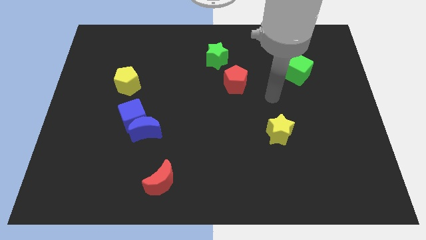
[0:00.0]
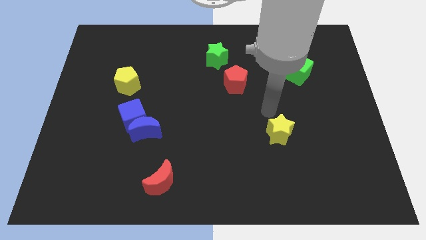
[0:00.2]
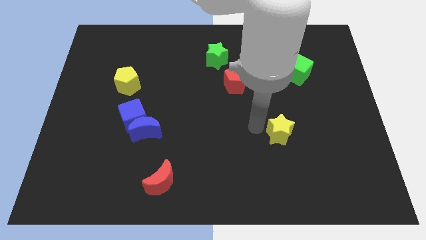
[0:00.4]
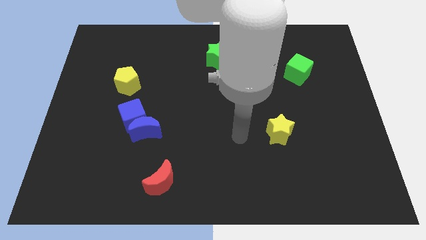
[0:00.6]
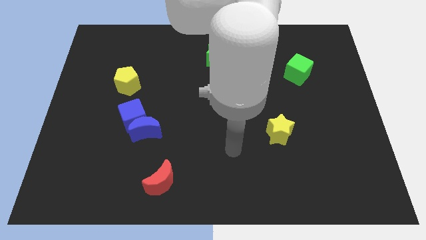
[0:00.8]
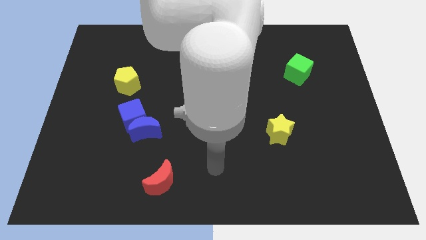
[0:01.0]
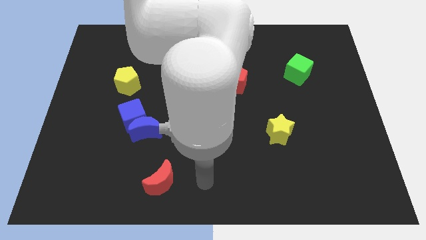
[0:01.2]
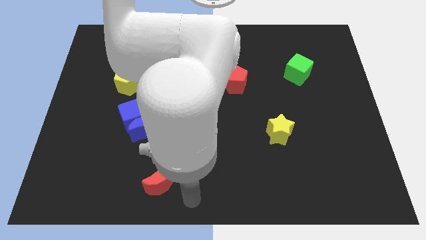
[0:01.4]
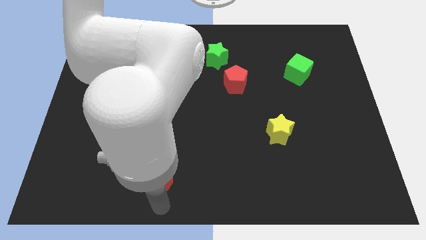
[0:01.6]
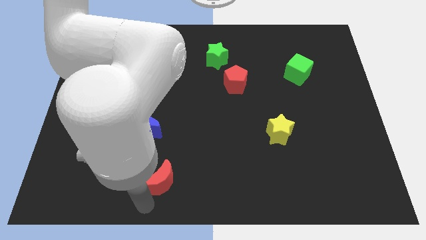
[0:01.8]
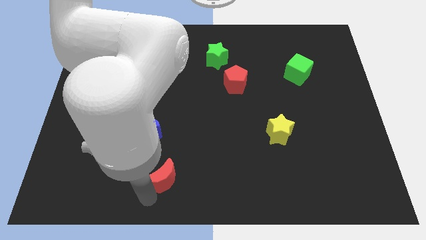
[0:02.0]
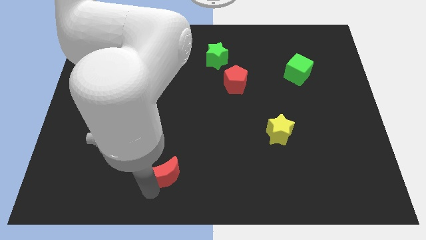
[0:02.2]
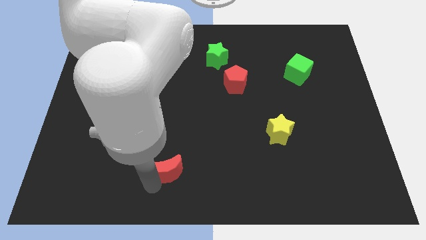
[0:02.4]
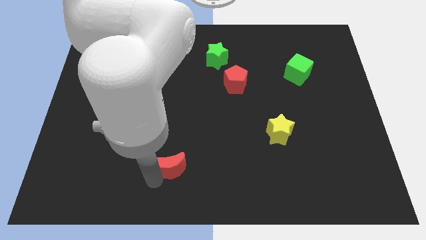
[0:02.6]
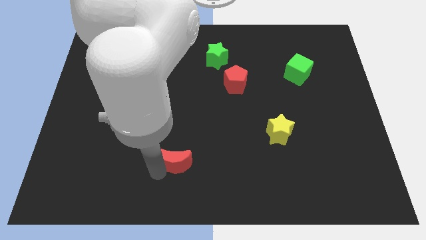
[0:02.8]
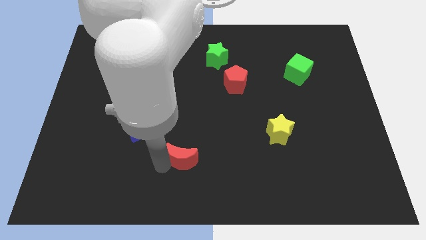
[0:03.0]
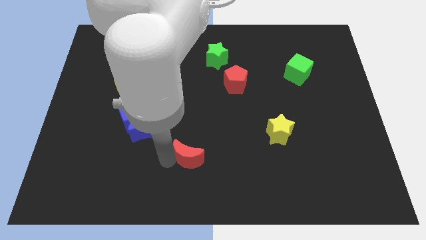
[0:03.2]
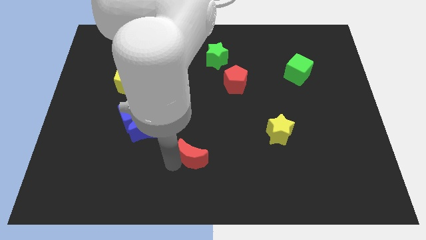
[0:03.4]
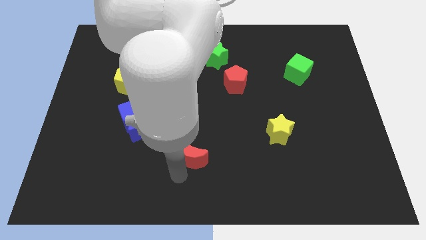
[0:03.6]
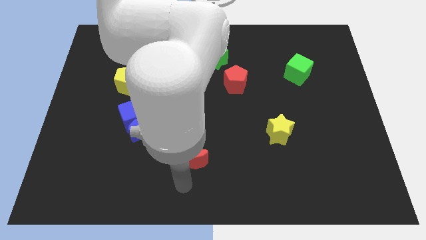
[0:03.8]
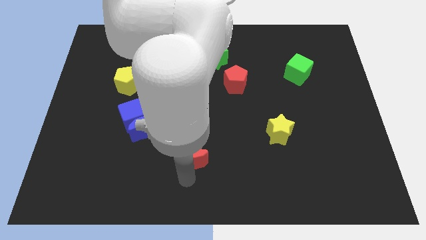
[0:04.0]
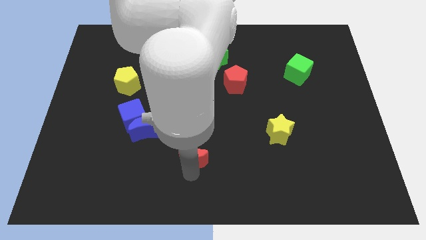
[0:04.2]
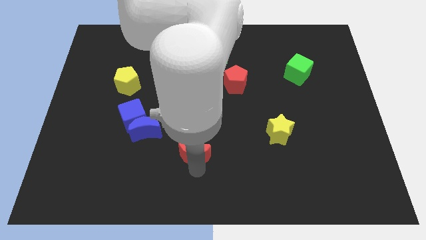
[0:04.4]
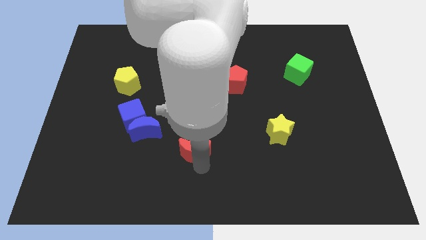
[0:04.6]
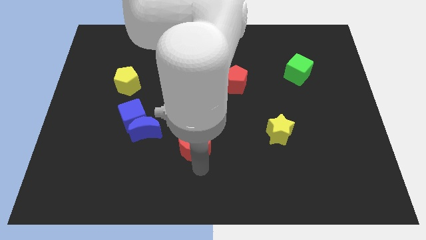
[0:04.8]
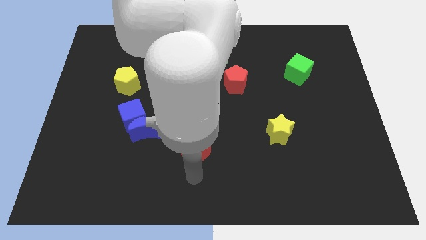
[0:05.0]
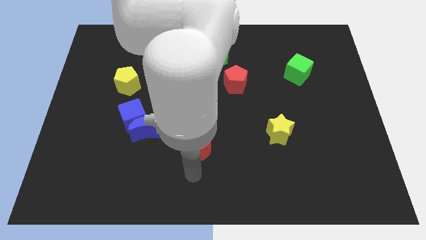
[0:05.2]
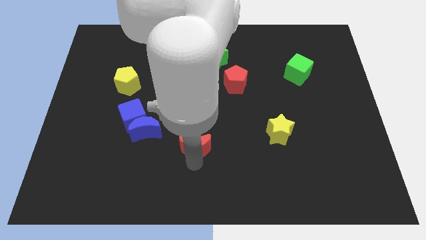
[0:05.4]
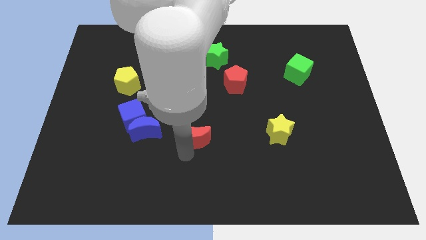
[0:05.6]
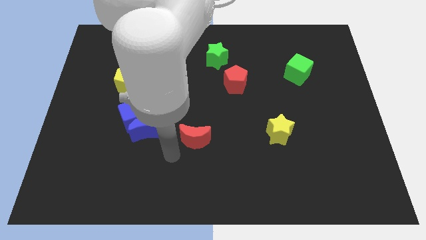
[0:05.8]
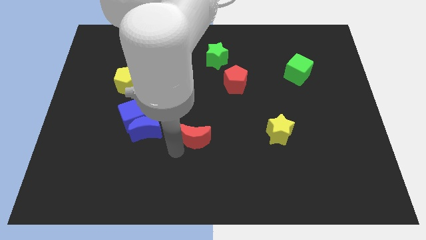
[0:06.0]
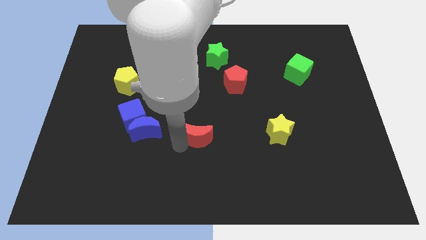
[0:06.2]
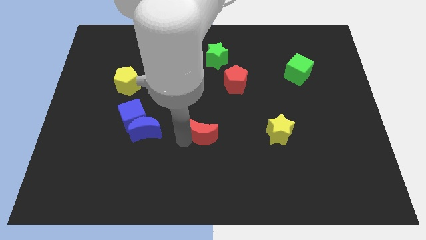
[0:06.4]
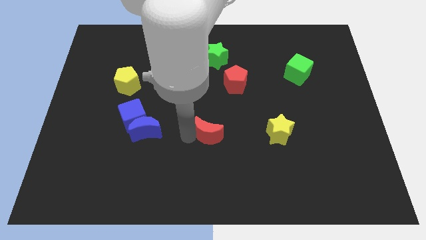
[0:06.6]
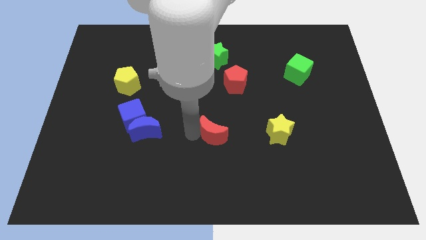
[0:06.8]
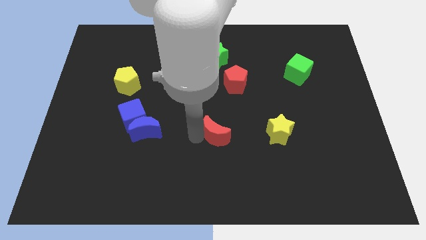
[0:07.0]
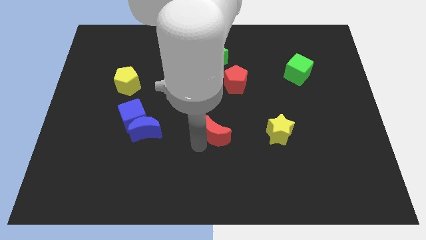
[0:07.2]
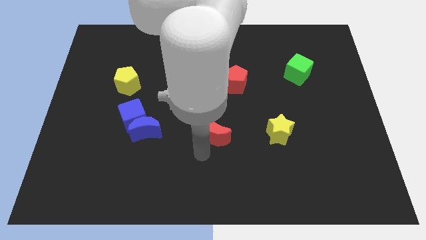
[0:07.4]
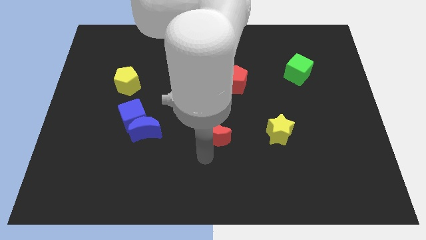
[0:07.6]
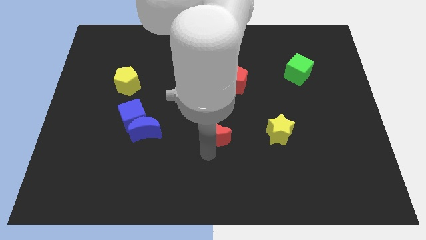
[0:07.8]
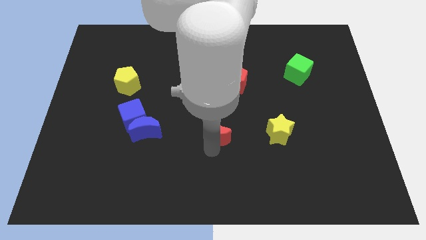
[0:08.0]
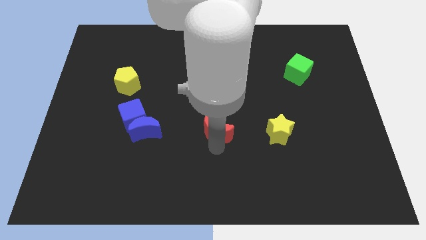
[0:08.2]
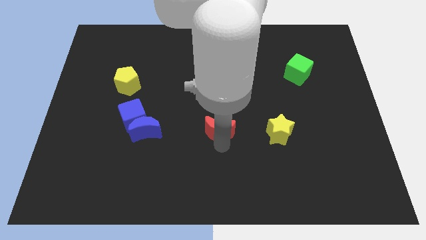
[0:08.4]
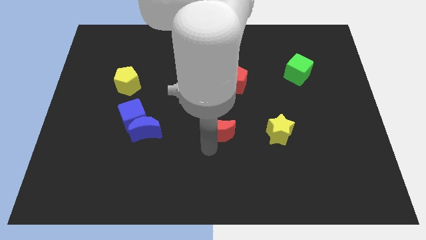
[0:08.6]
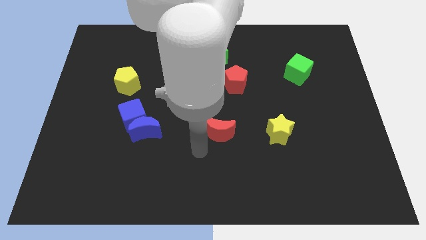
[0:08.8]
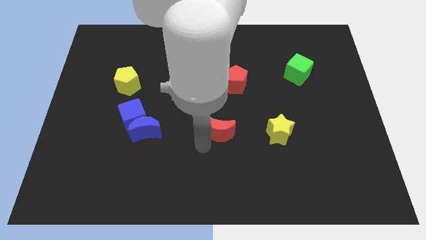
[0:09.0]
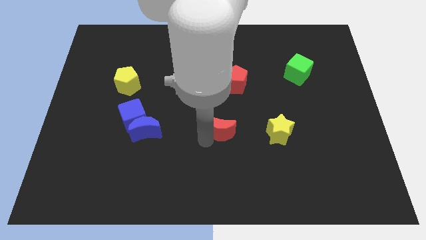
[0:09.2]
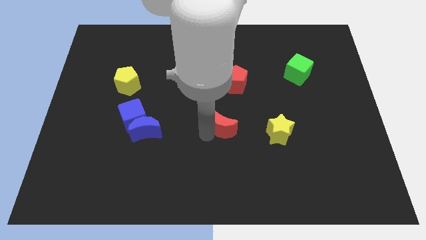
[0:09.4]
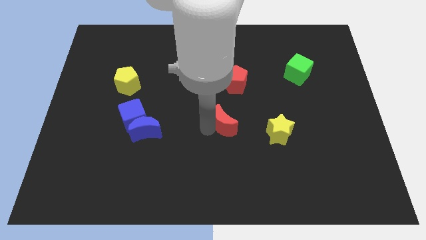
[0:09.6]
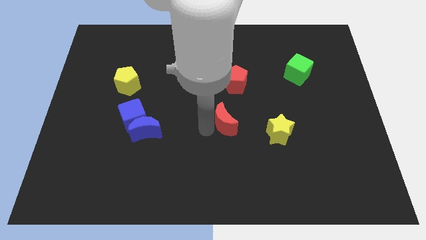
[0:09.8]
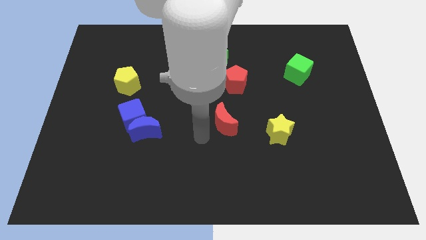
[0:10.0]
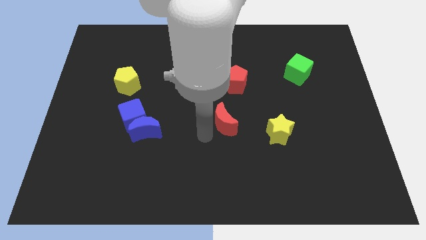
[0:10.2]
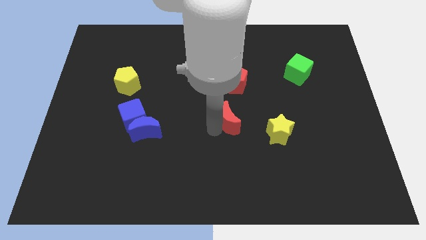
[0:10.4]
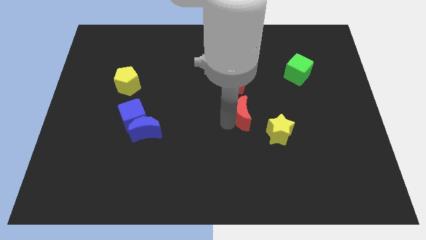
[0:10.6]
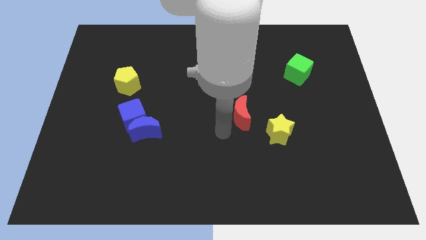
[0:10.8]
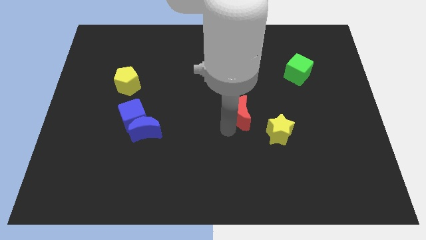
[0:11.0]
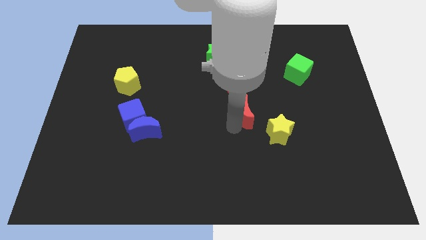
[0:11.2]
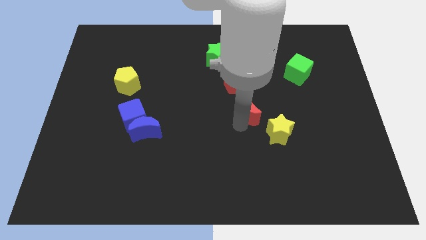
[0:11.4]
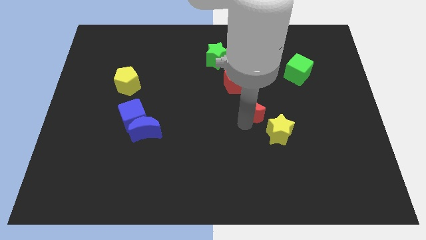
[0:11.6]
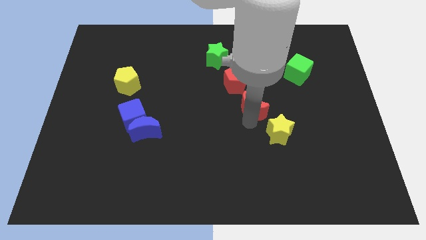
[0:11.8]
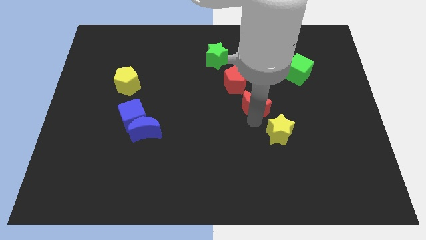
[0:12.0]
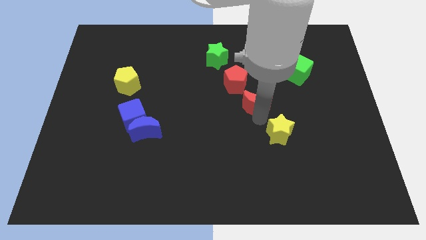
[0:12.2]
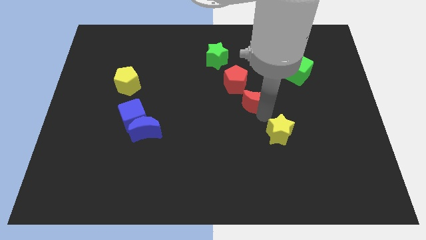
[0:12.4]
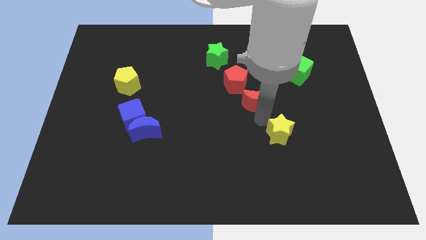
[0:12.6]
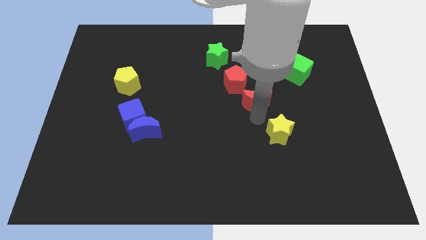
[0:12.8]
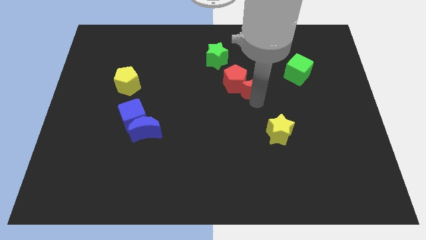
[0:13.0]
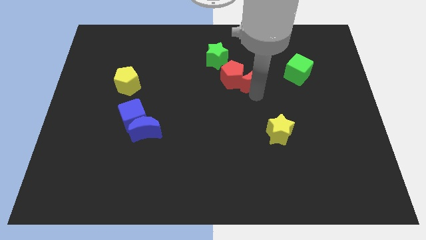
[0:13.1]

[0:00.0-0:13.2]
put the red moon to the top right side of the red pentagon

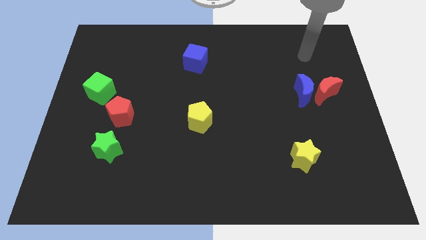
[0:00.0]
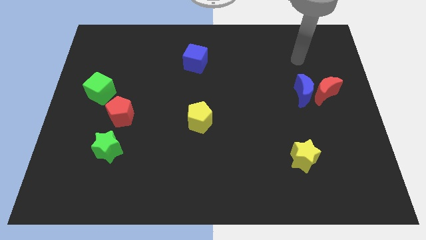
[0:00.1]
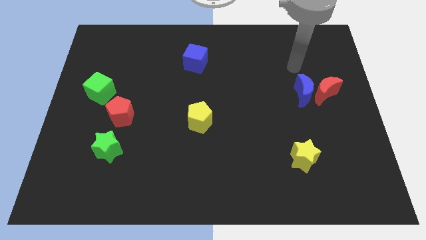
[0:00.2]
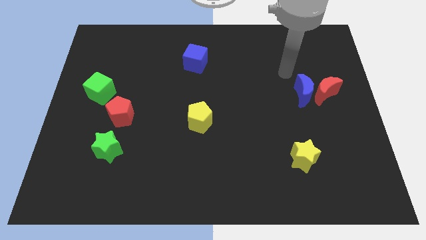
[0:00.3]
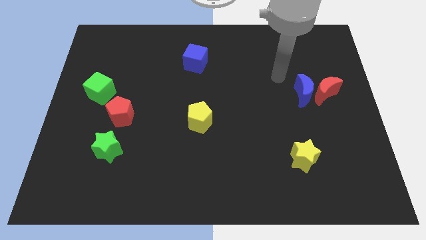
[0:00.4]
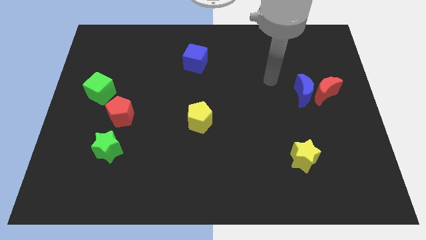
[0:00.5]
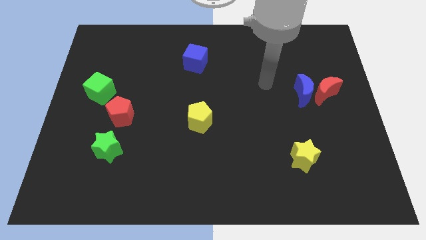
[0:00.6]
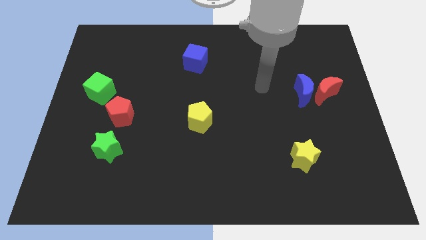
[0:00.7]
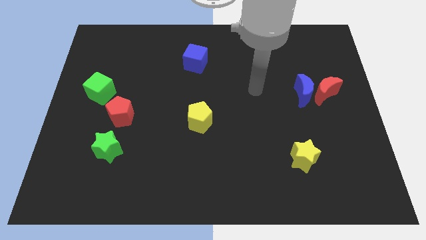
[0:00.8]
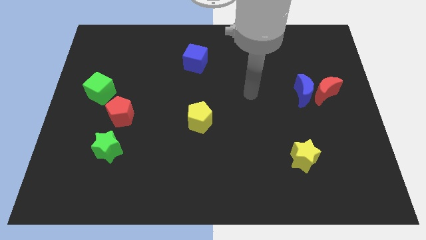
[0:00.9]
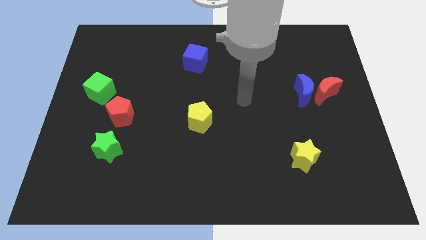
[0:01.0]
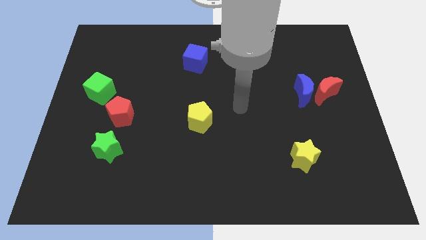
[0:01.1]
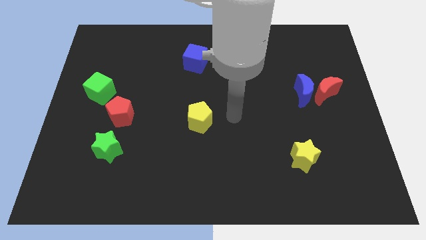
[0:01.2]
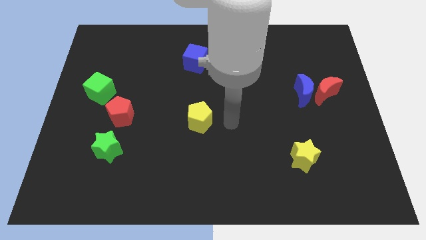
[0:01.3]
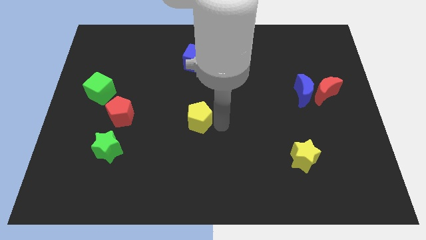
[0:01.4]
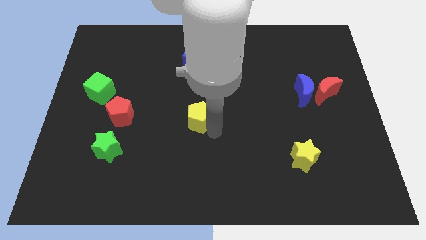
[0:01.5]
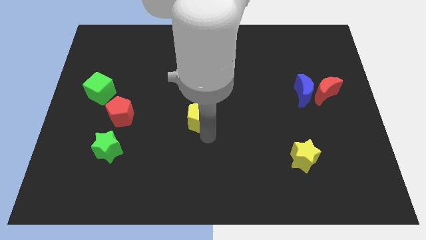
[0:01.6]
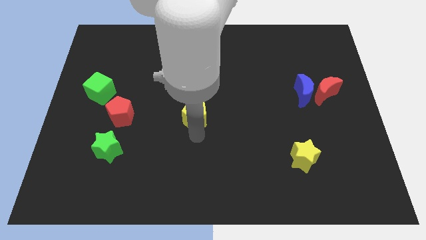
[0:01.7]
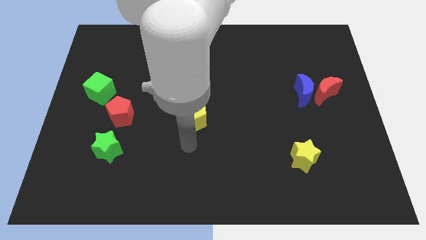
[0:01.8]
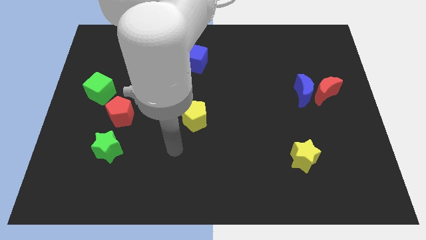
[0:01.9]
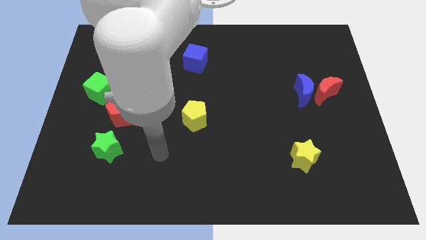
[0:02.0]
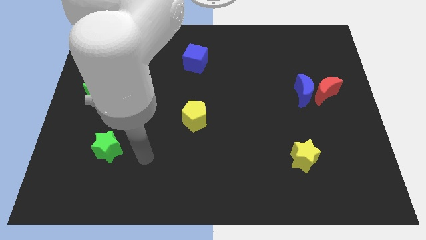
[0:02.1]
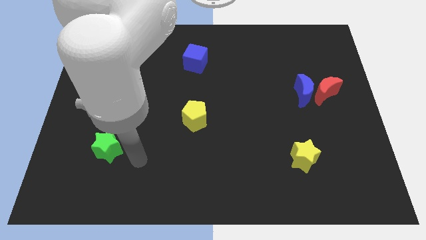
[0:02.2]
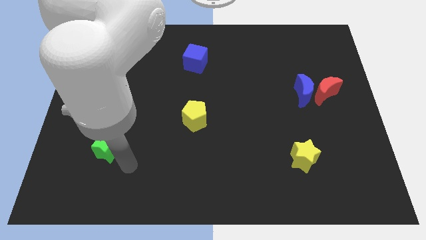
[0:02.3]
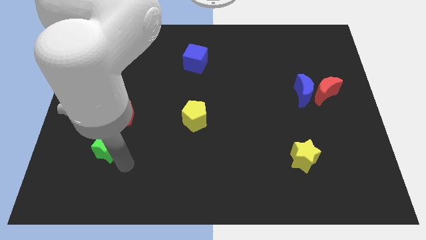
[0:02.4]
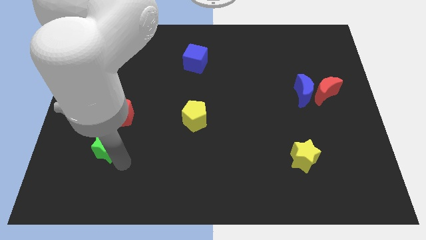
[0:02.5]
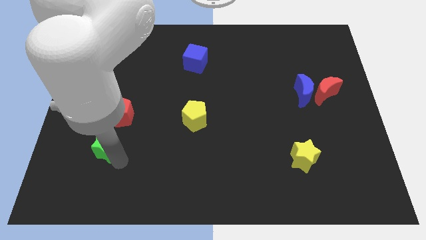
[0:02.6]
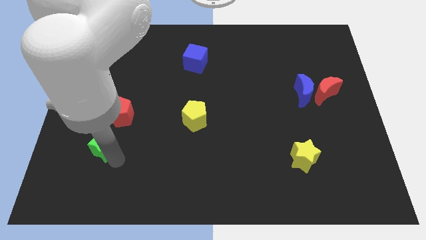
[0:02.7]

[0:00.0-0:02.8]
move the green star to the bottom left of the red pentagon
